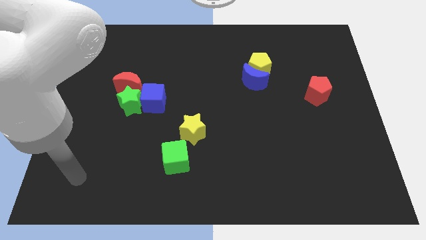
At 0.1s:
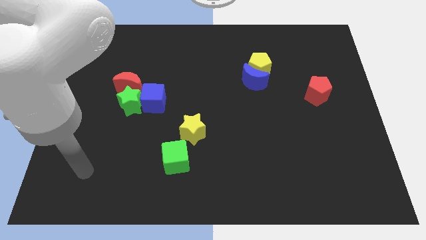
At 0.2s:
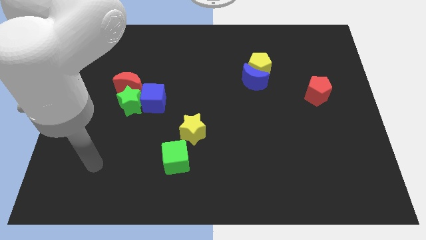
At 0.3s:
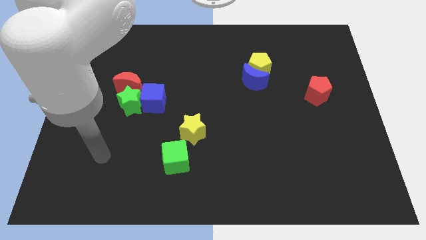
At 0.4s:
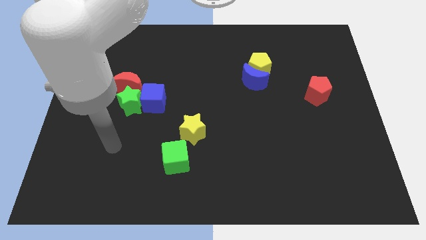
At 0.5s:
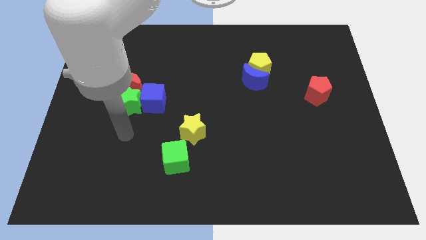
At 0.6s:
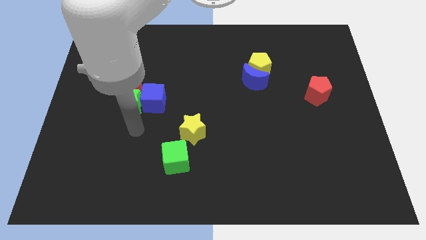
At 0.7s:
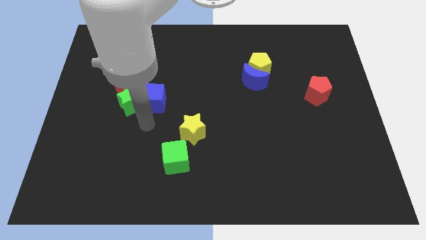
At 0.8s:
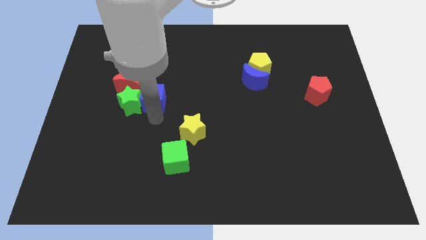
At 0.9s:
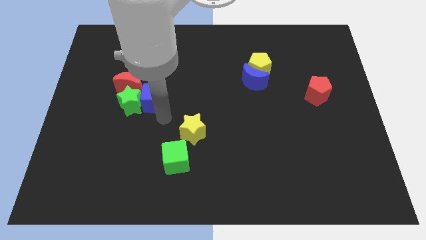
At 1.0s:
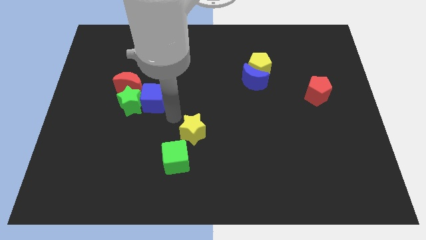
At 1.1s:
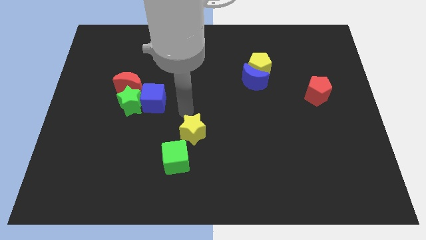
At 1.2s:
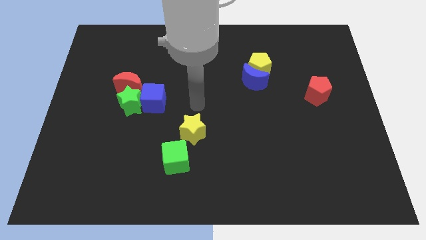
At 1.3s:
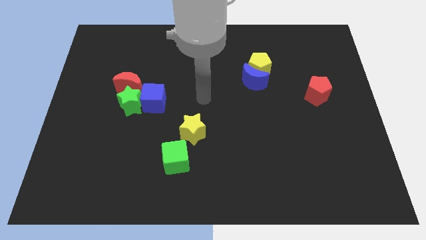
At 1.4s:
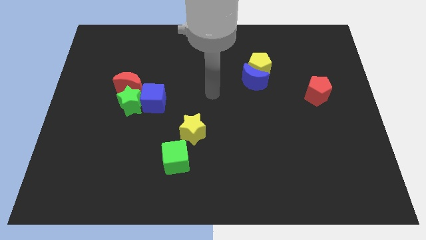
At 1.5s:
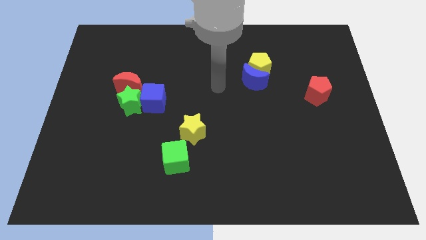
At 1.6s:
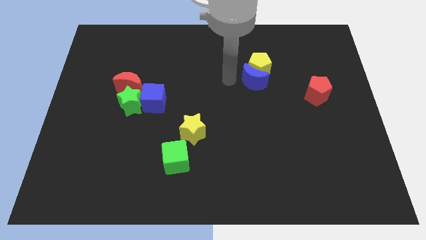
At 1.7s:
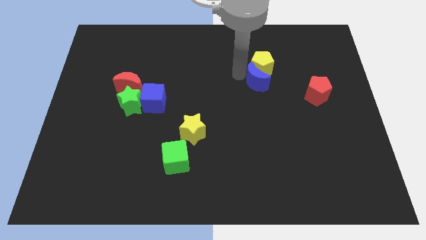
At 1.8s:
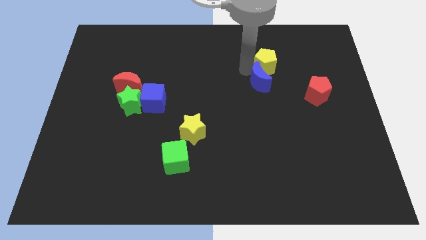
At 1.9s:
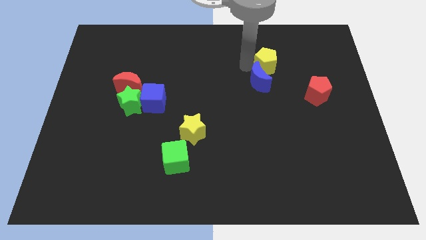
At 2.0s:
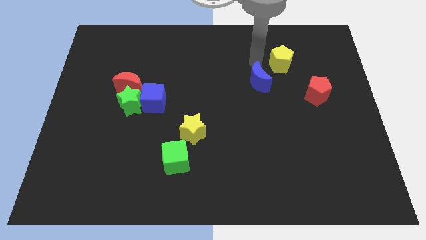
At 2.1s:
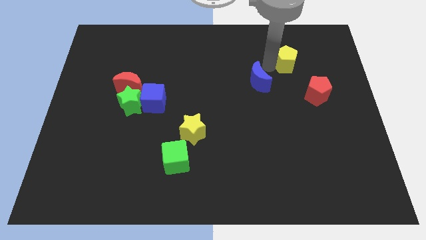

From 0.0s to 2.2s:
move the blue moon away from the yellow pentagon

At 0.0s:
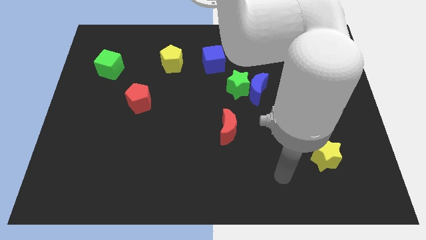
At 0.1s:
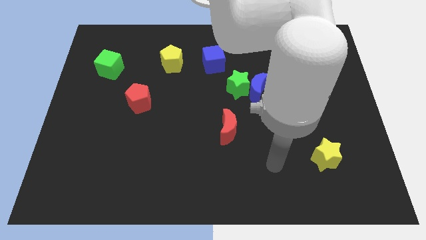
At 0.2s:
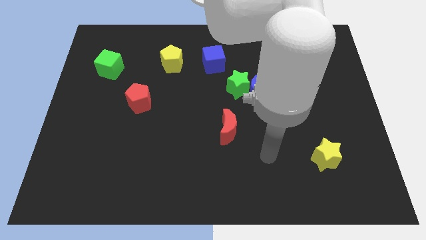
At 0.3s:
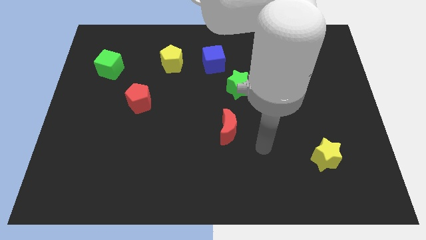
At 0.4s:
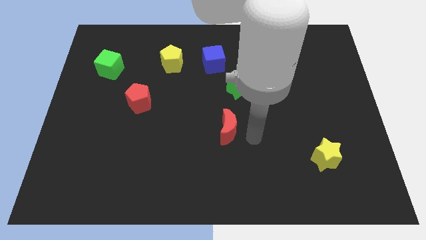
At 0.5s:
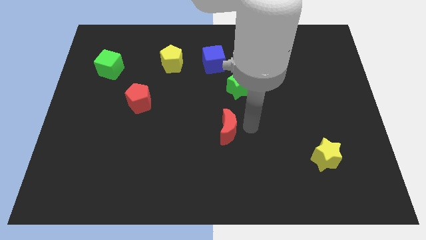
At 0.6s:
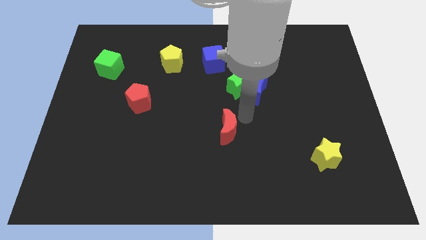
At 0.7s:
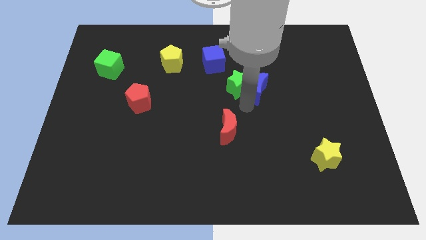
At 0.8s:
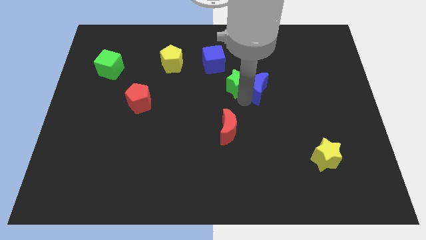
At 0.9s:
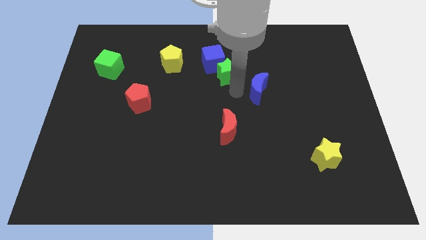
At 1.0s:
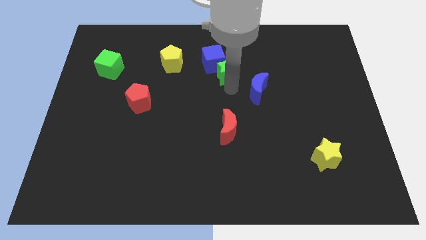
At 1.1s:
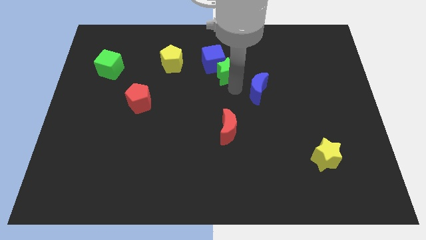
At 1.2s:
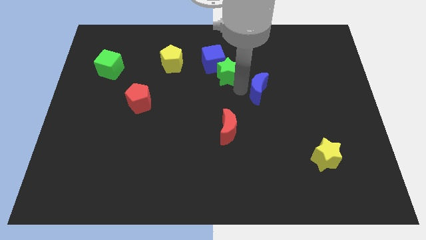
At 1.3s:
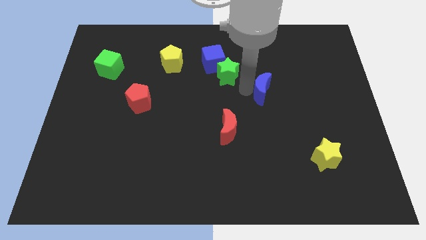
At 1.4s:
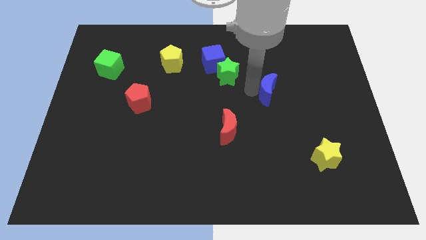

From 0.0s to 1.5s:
move the blue moon away from the green star

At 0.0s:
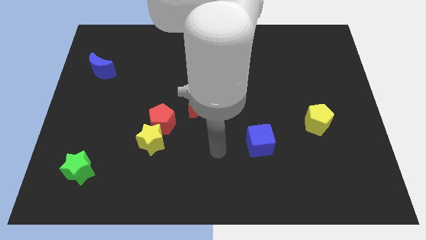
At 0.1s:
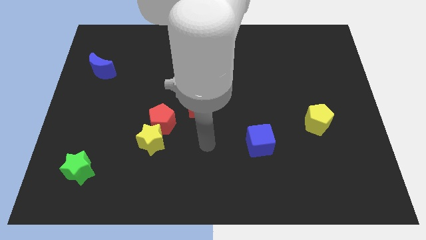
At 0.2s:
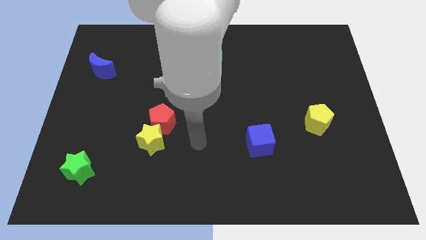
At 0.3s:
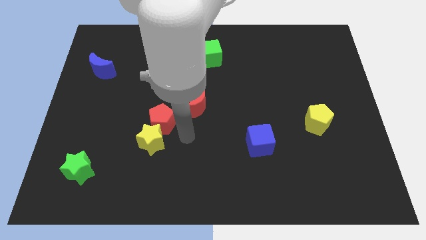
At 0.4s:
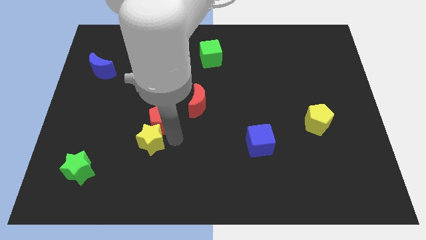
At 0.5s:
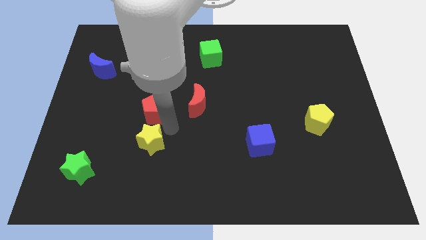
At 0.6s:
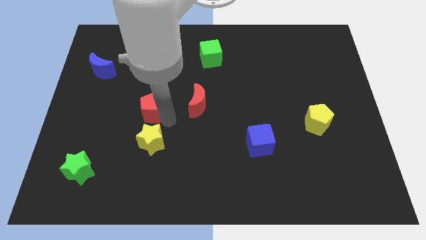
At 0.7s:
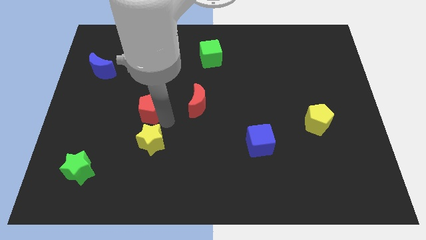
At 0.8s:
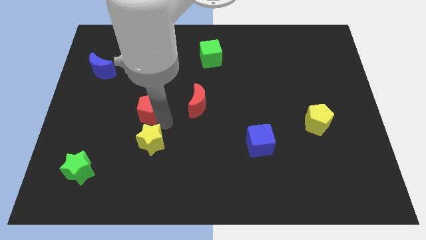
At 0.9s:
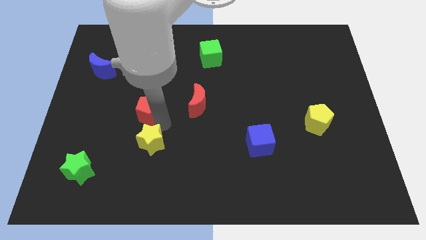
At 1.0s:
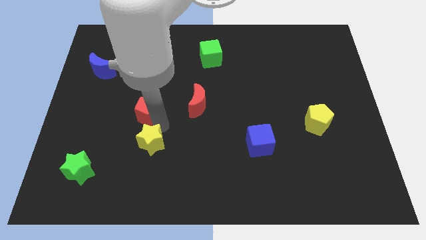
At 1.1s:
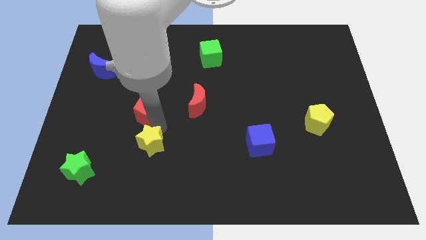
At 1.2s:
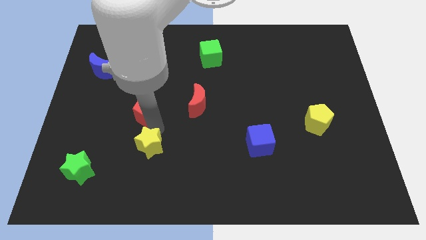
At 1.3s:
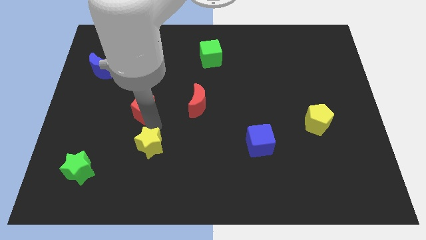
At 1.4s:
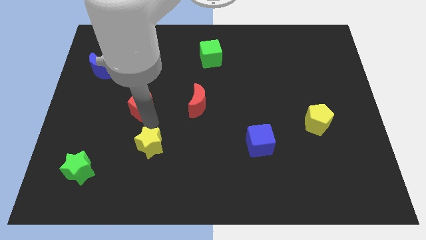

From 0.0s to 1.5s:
move the yellow star away from the red pentagon

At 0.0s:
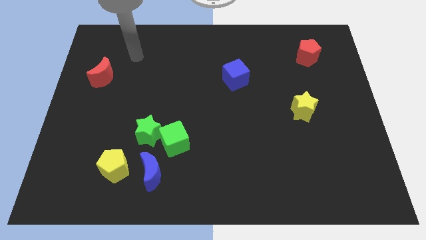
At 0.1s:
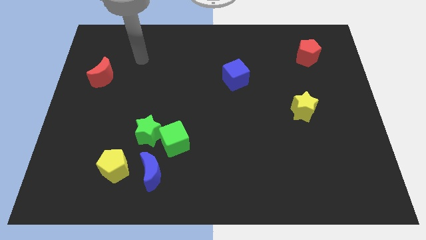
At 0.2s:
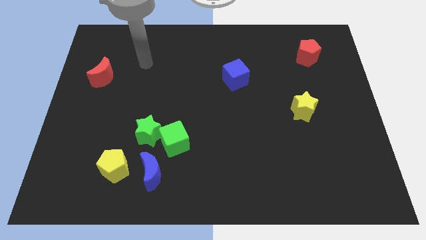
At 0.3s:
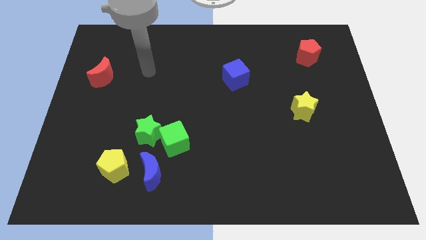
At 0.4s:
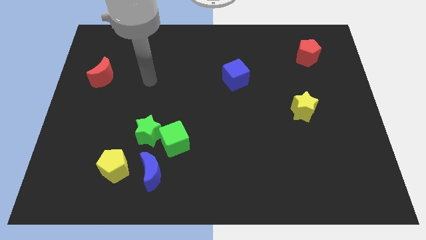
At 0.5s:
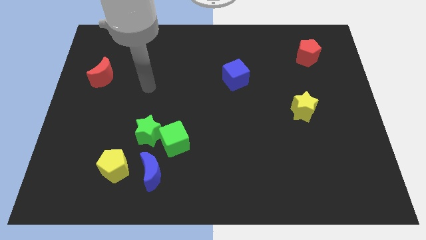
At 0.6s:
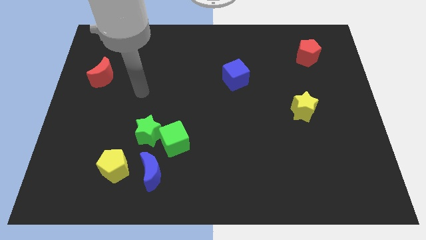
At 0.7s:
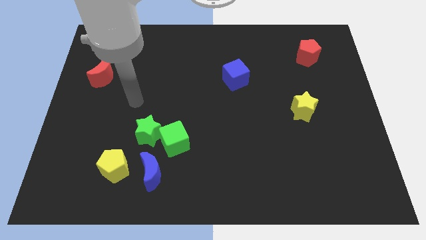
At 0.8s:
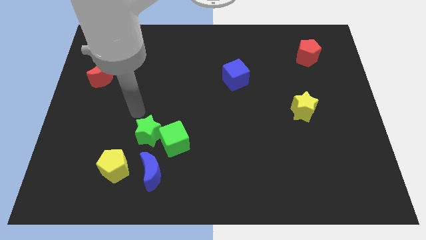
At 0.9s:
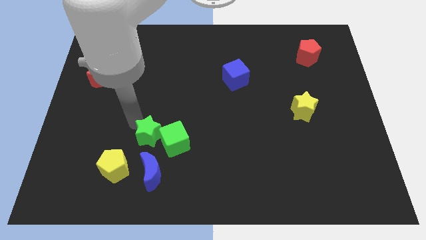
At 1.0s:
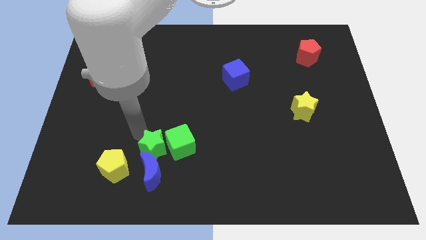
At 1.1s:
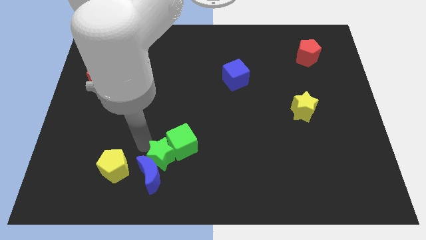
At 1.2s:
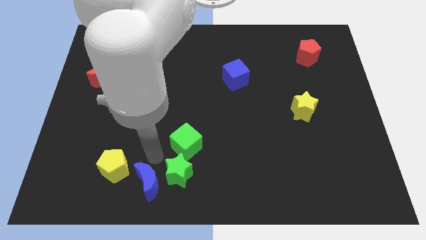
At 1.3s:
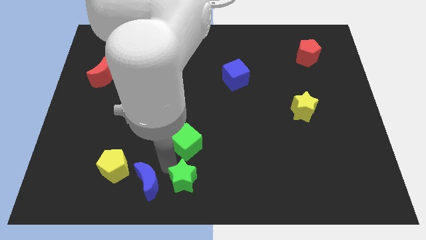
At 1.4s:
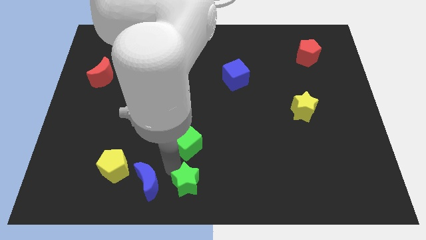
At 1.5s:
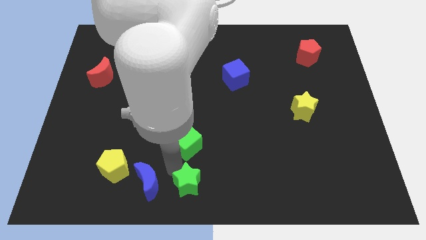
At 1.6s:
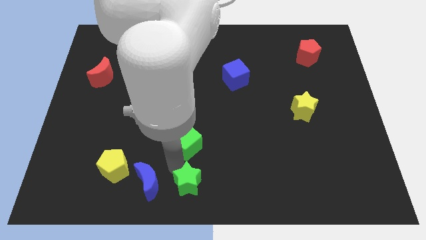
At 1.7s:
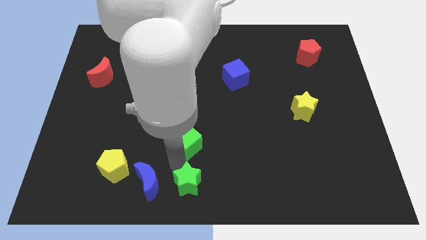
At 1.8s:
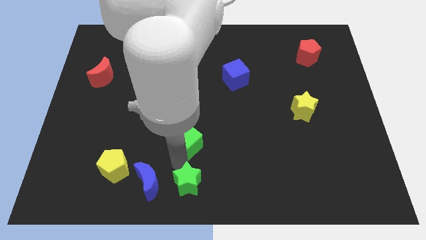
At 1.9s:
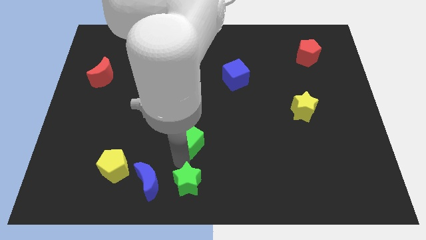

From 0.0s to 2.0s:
move the green cube away from the green star and blue moon

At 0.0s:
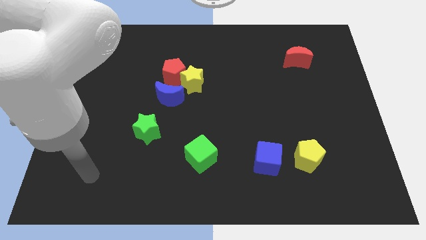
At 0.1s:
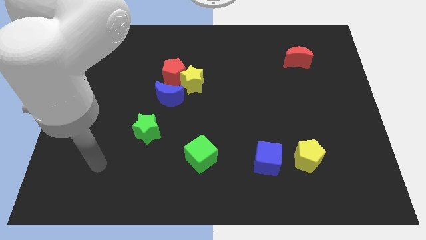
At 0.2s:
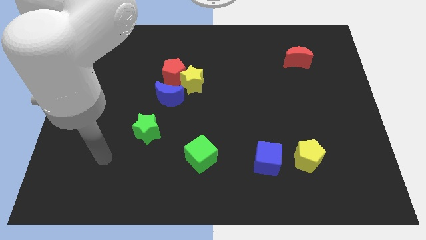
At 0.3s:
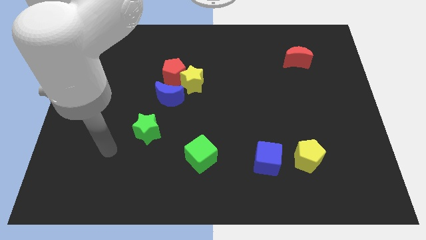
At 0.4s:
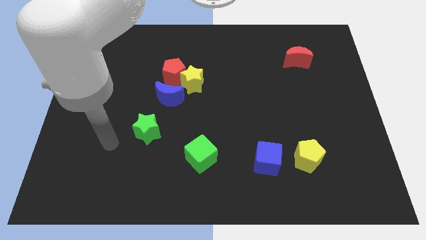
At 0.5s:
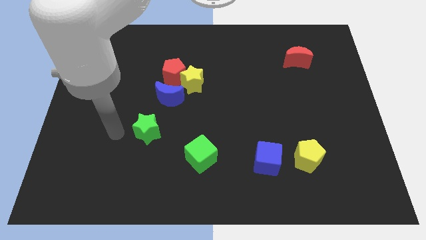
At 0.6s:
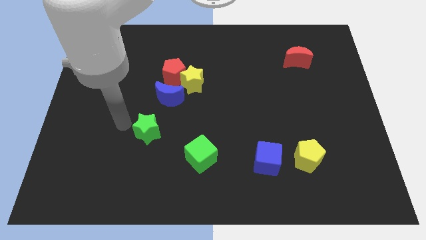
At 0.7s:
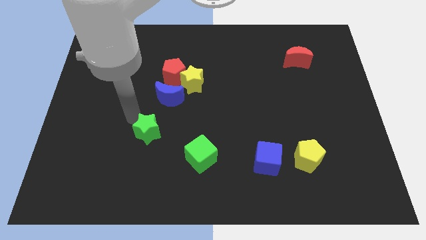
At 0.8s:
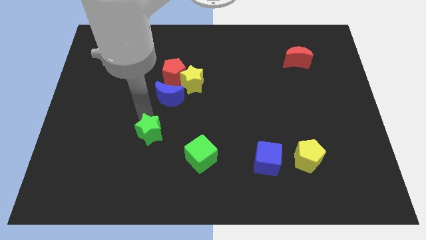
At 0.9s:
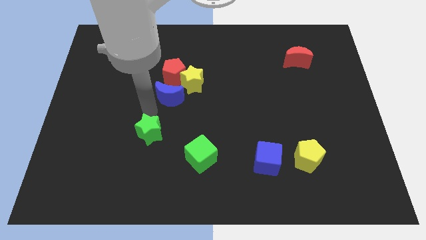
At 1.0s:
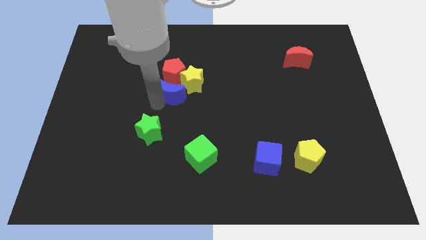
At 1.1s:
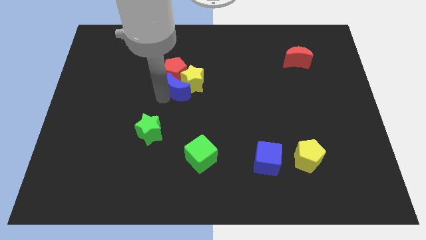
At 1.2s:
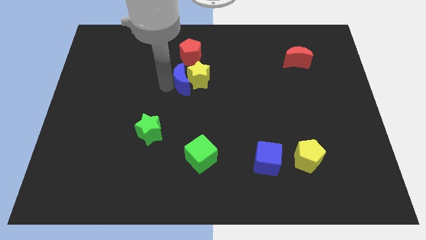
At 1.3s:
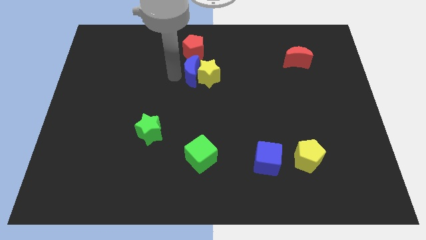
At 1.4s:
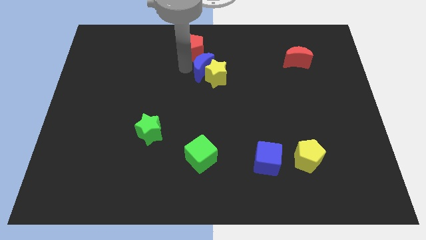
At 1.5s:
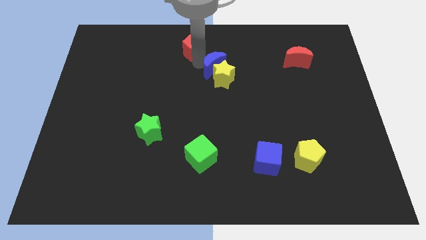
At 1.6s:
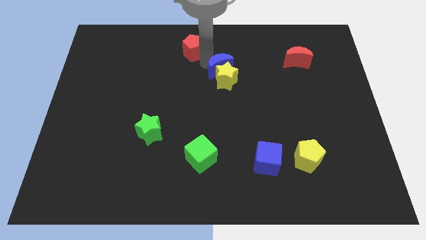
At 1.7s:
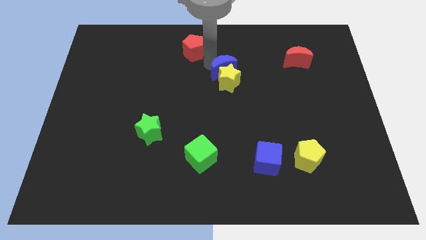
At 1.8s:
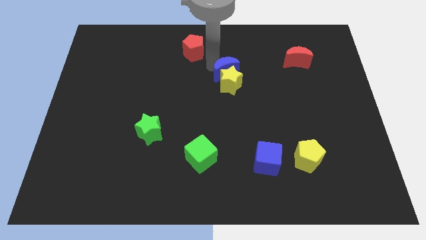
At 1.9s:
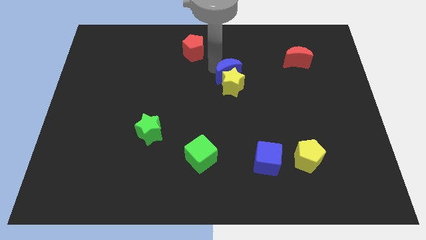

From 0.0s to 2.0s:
move the yellow star away from the red pentagon and blue moon

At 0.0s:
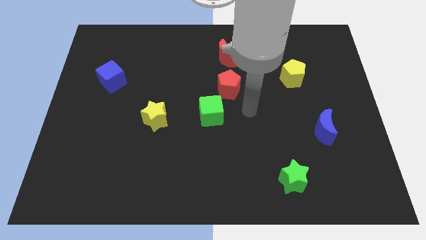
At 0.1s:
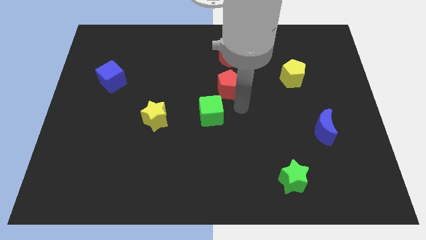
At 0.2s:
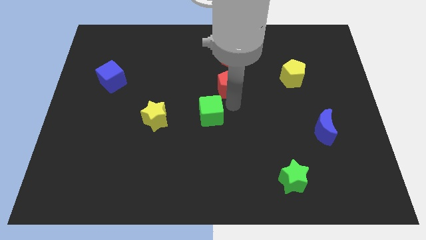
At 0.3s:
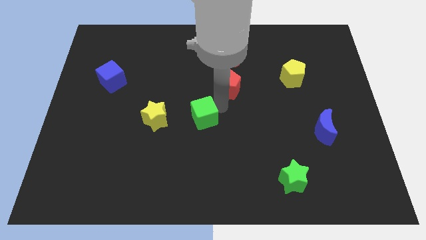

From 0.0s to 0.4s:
move the red pentagon away from the green cube
